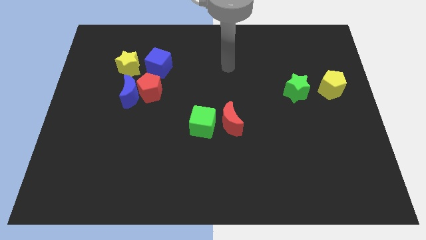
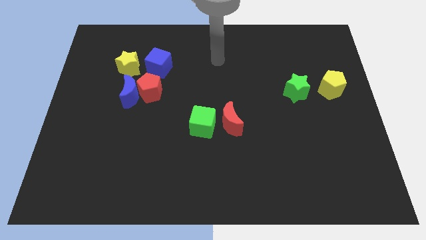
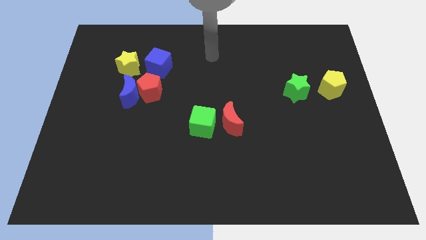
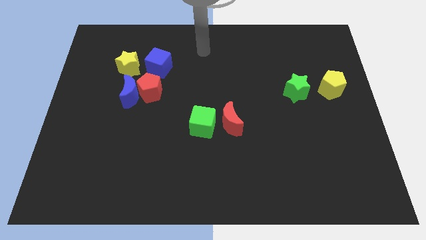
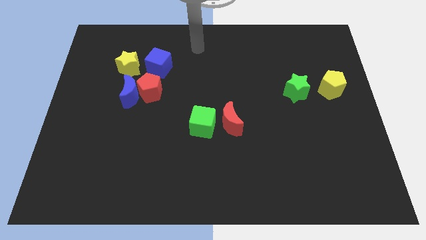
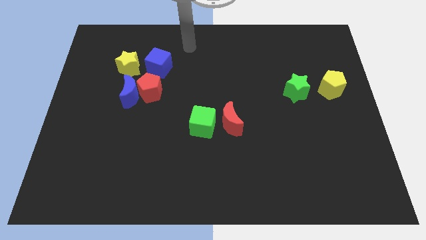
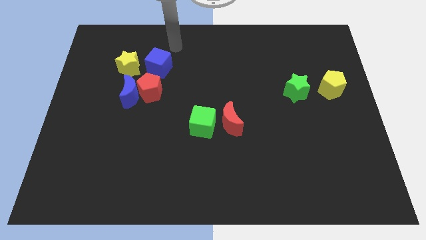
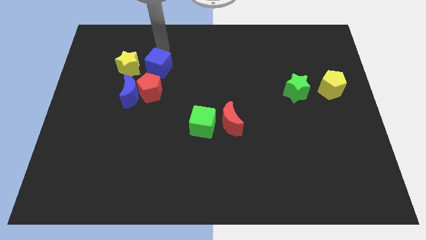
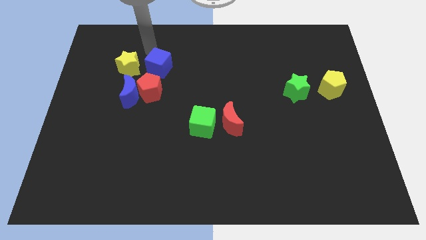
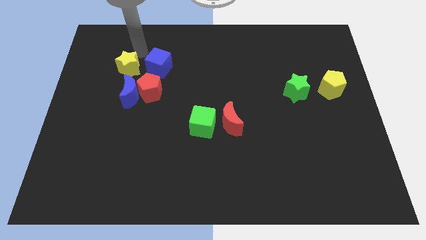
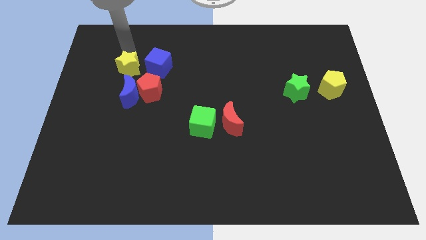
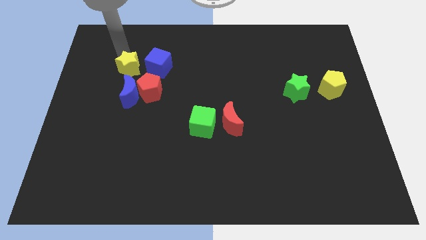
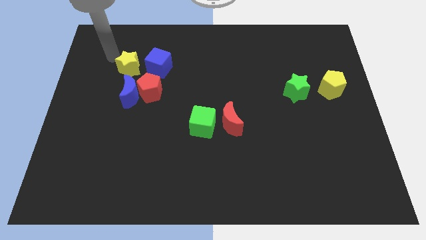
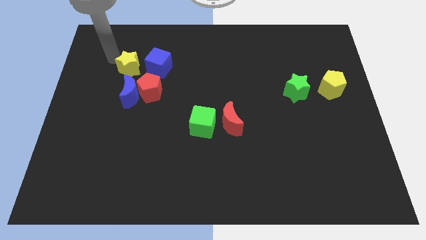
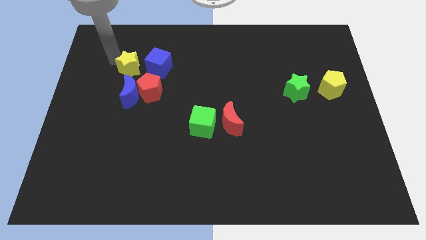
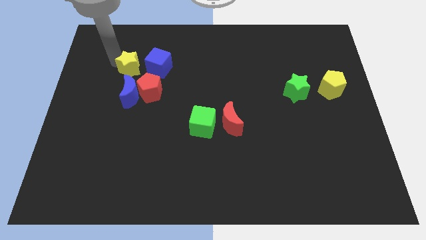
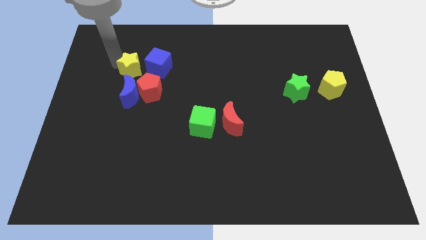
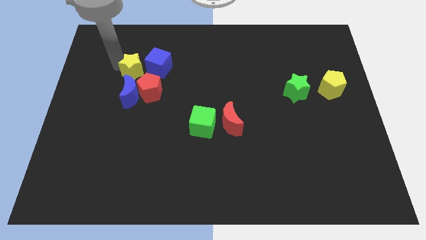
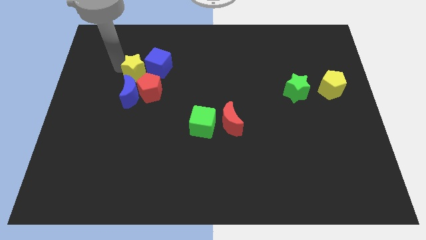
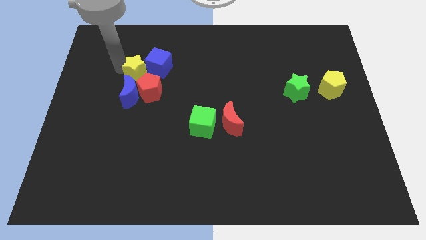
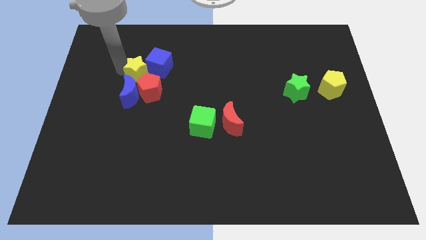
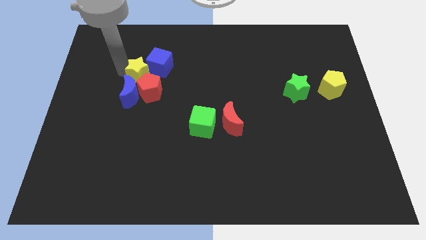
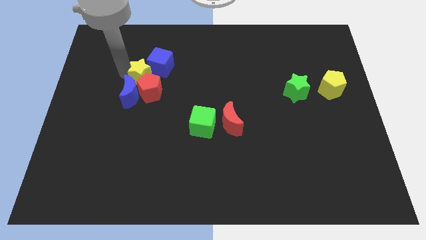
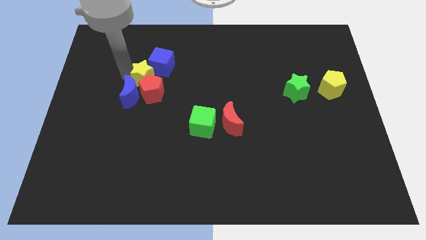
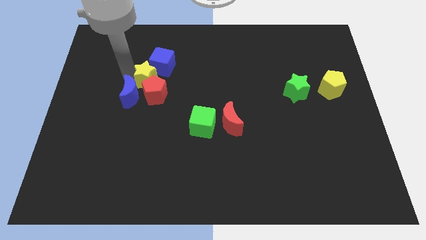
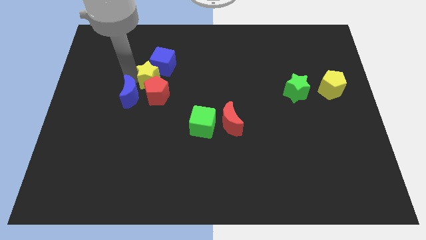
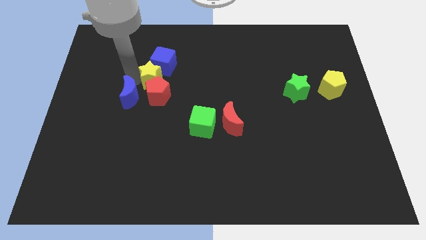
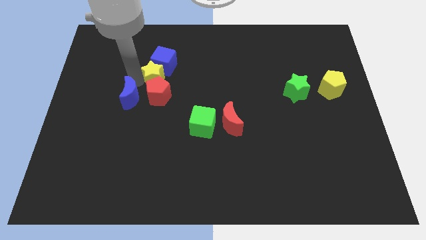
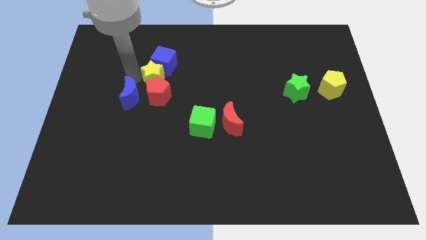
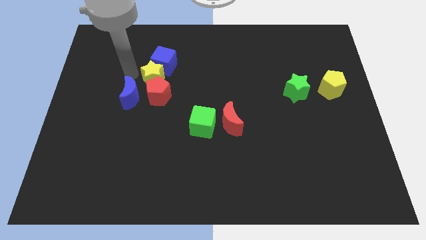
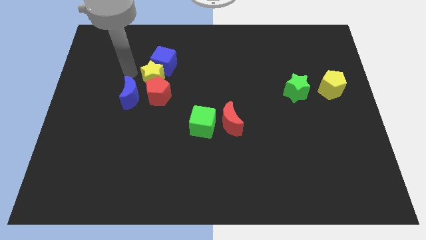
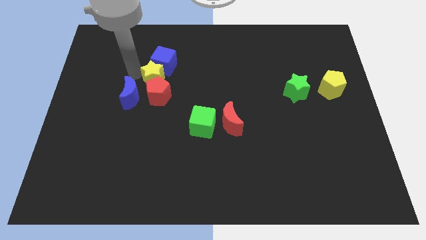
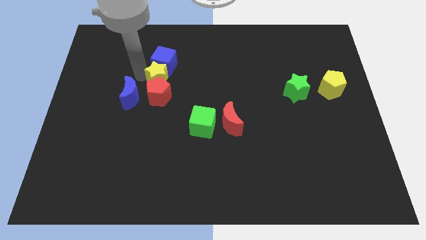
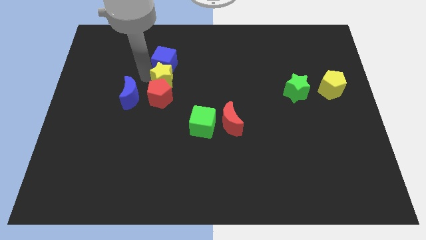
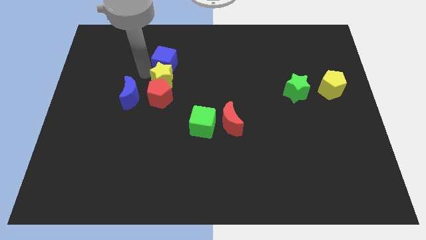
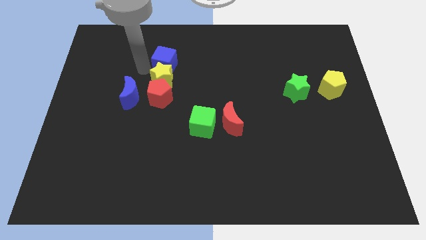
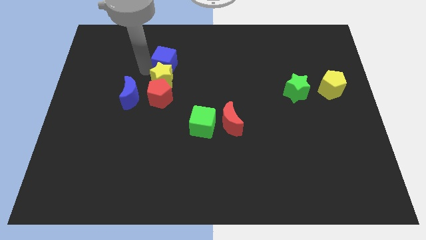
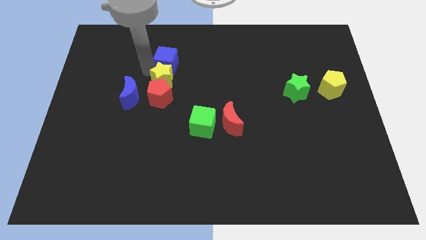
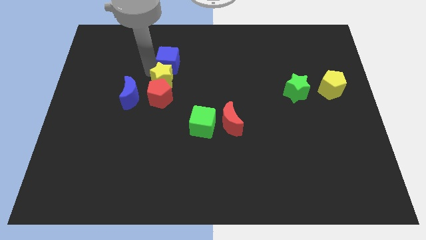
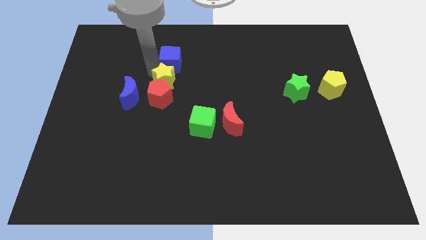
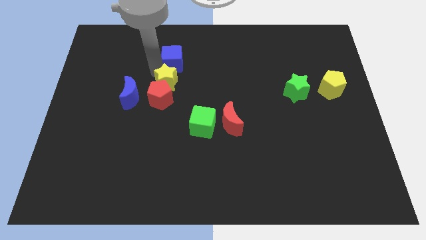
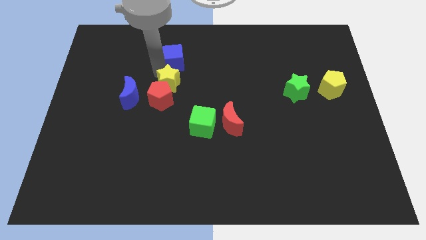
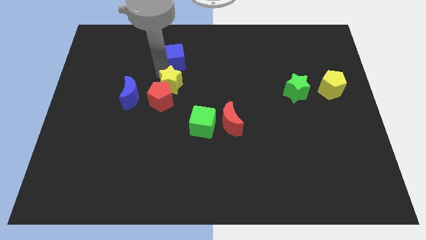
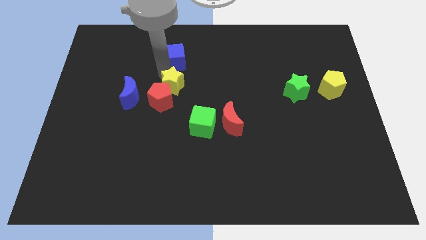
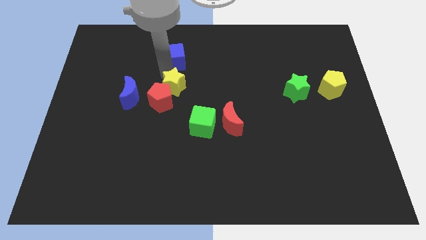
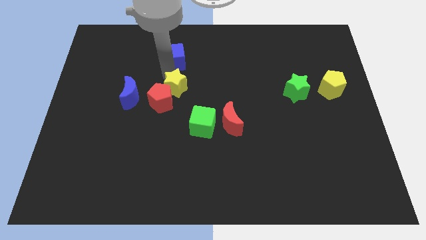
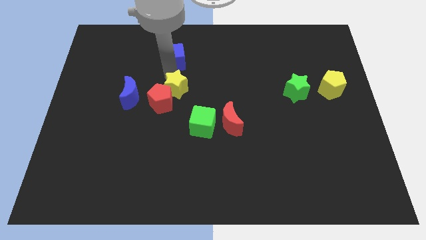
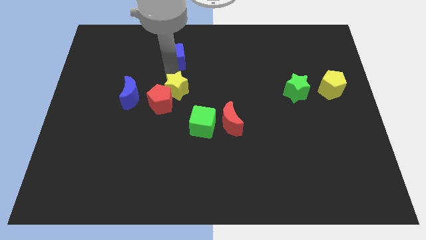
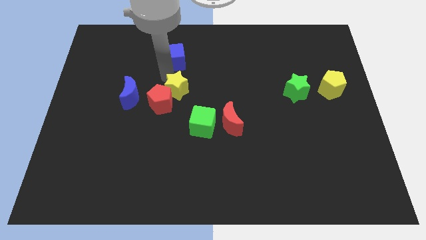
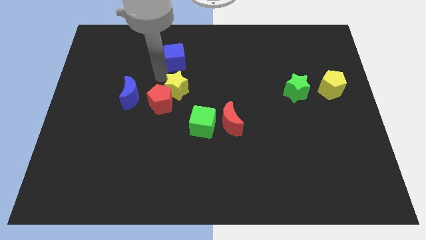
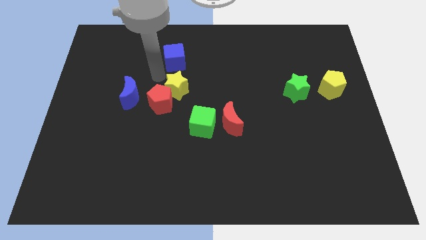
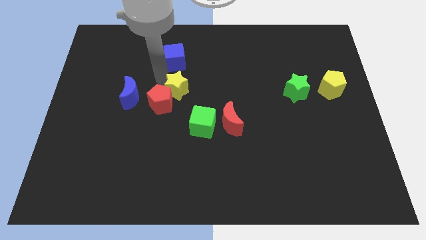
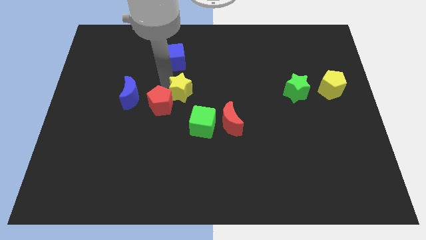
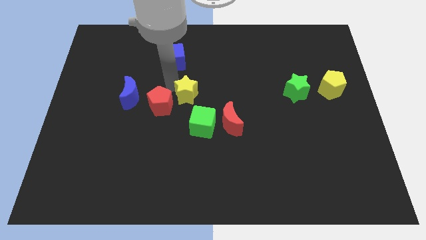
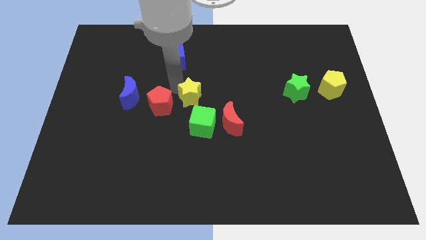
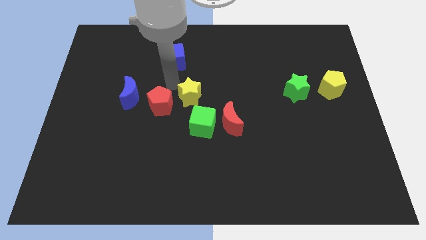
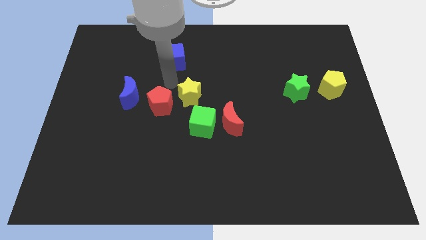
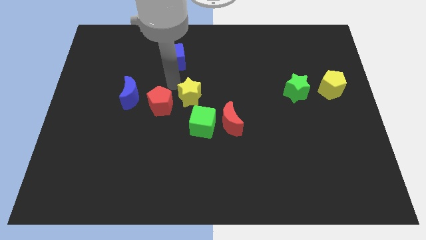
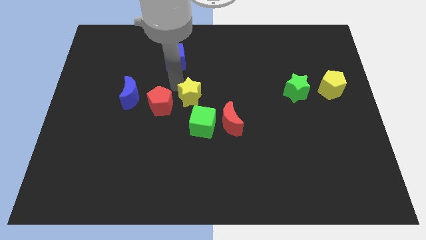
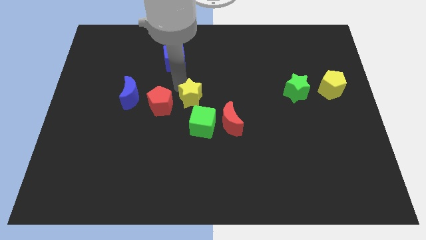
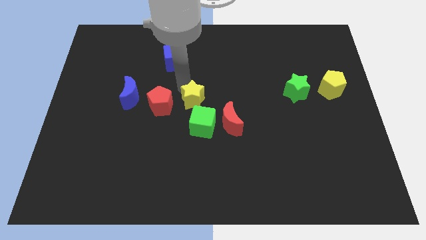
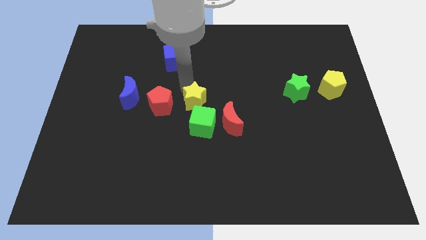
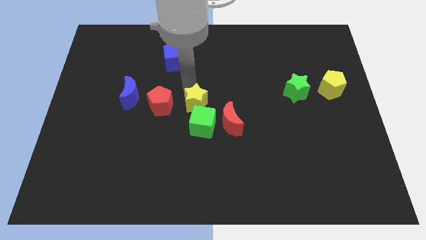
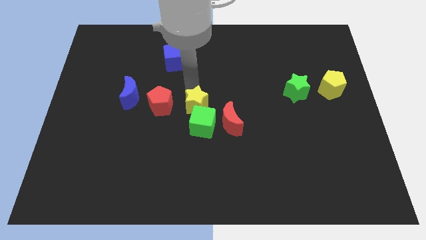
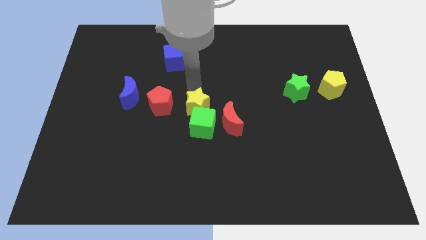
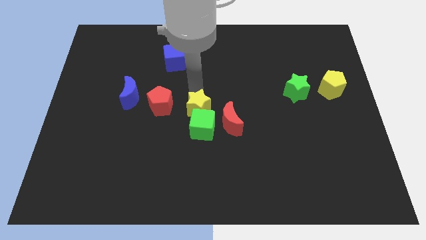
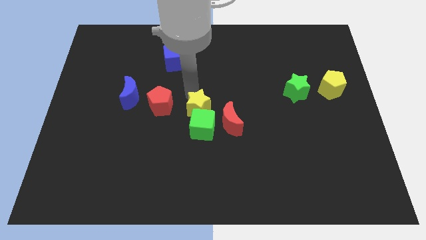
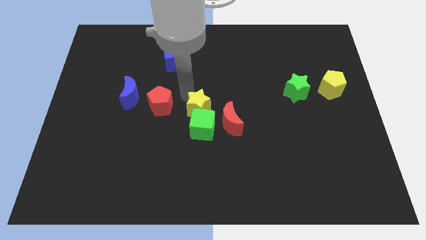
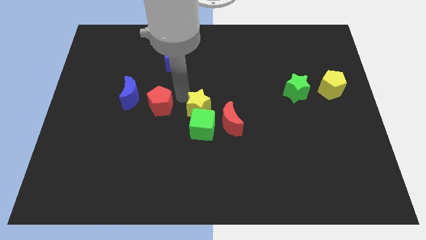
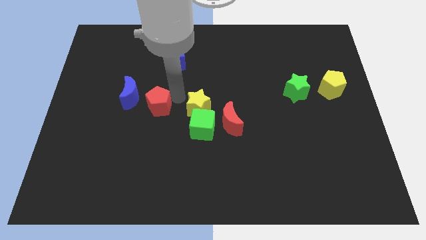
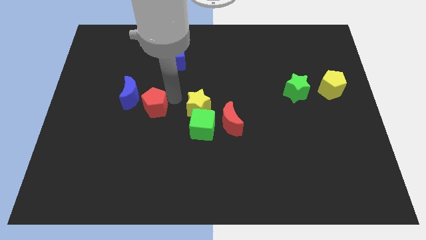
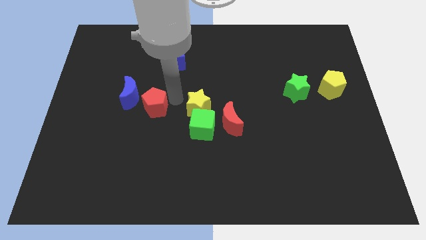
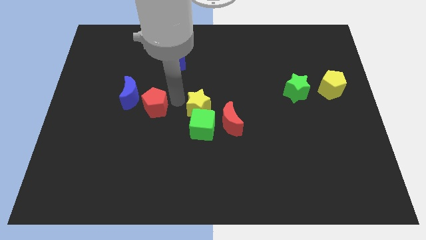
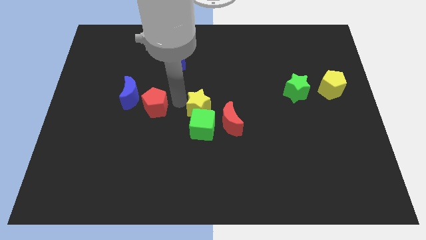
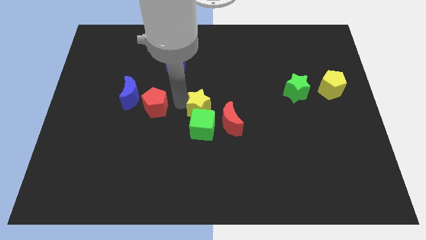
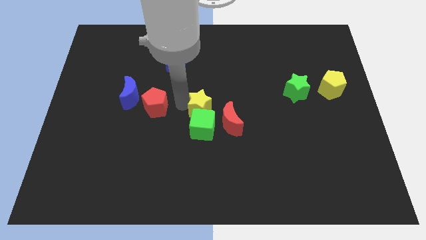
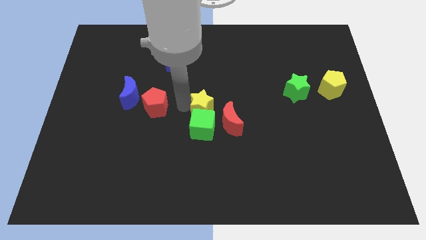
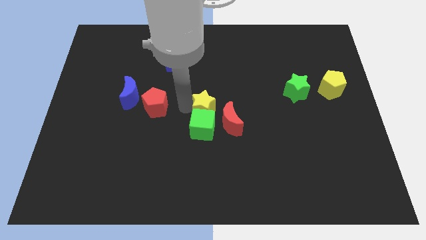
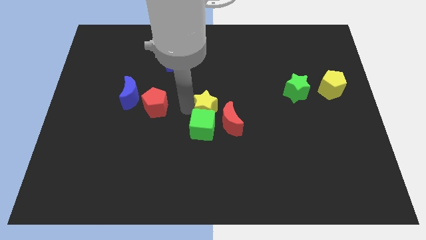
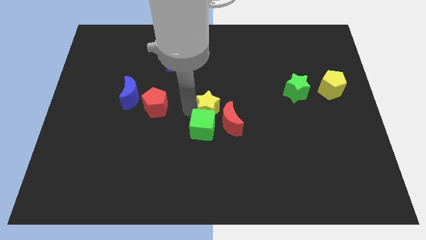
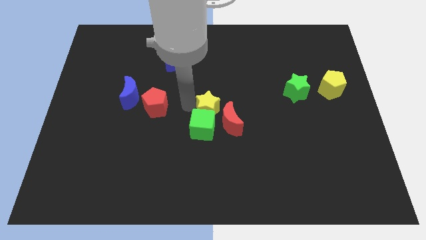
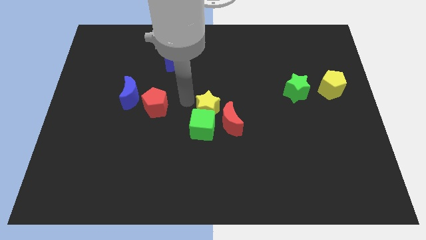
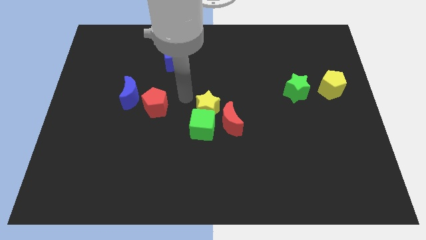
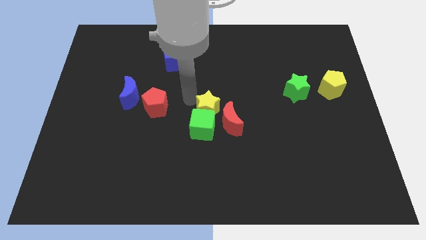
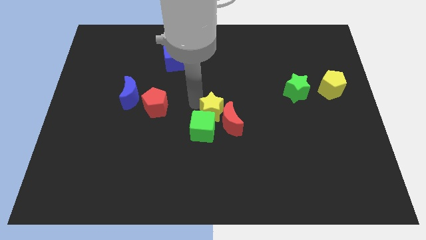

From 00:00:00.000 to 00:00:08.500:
put the yellow star close to the red moon
